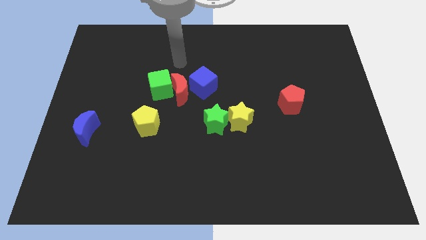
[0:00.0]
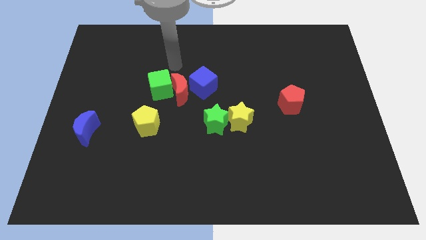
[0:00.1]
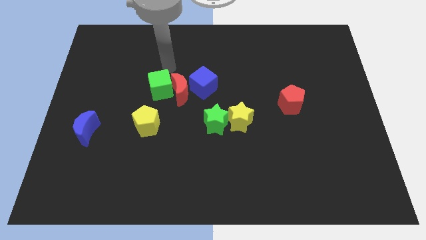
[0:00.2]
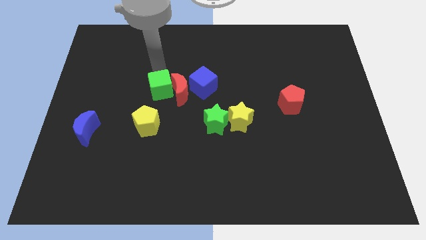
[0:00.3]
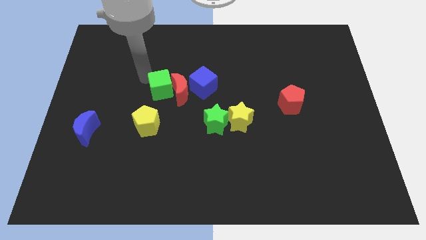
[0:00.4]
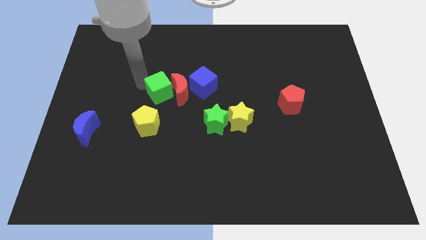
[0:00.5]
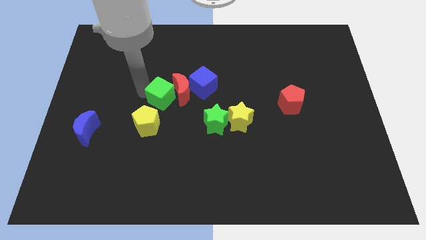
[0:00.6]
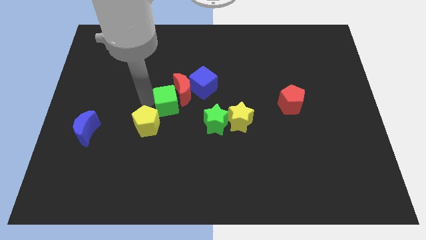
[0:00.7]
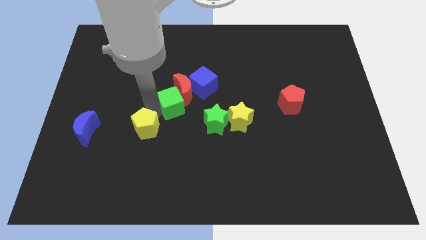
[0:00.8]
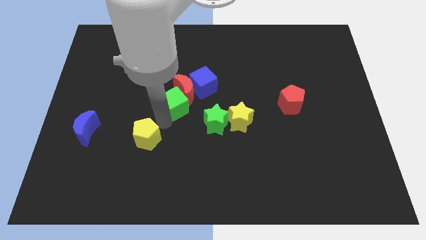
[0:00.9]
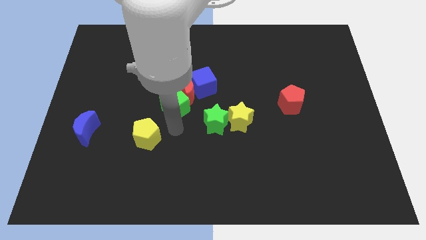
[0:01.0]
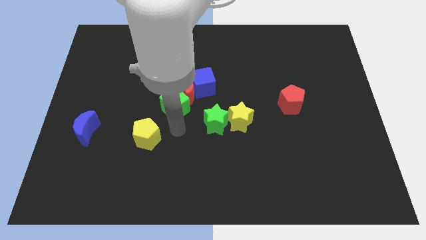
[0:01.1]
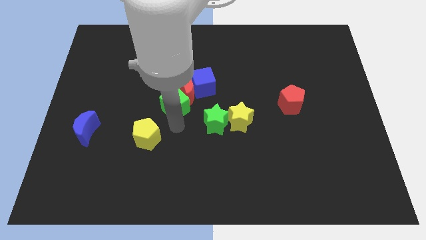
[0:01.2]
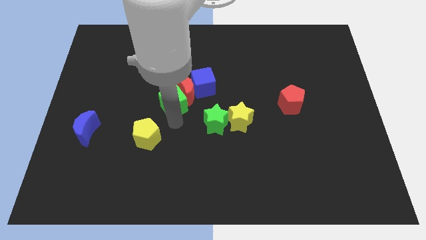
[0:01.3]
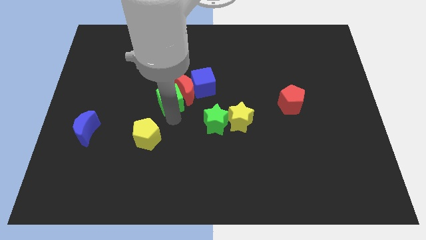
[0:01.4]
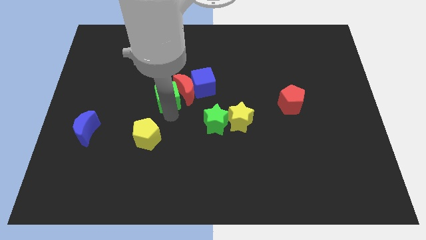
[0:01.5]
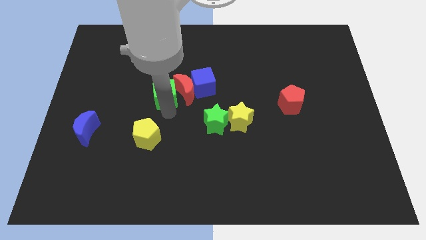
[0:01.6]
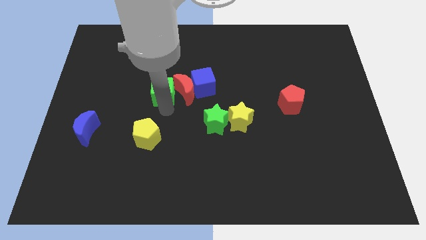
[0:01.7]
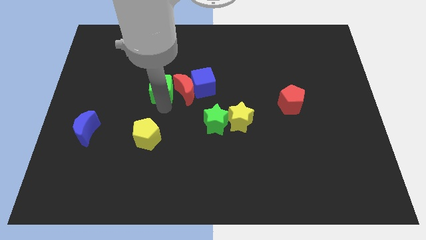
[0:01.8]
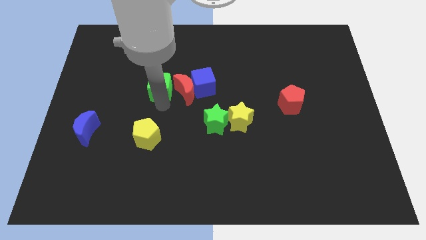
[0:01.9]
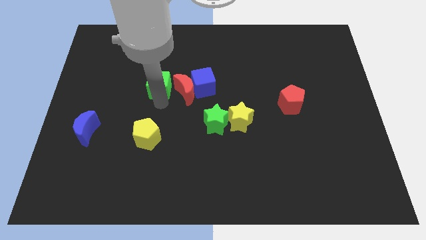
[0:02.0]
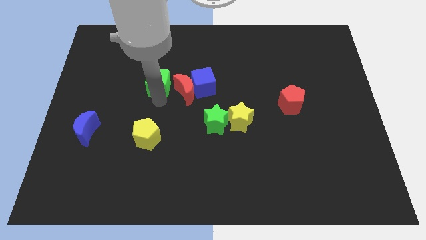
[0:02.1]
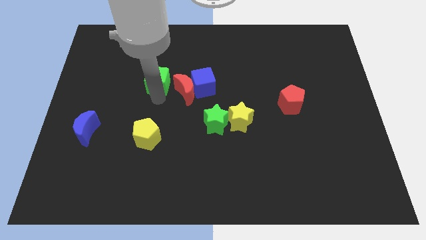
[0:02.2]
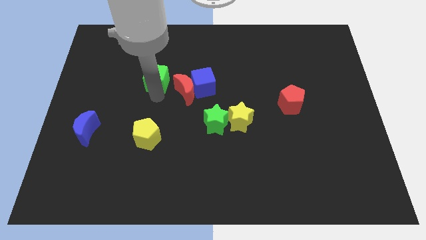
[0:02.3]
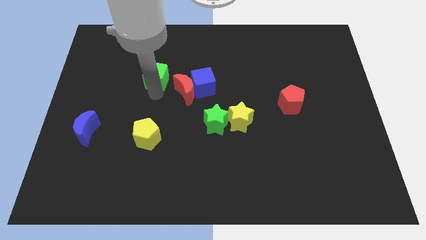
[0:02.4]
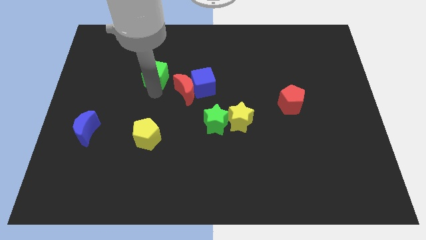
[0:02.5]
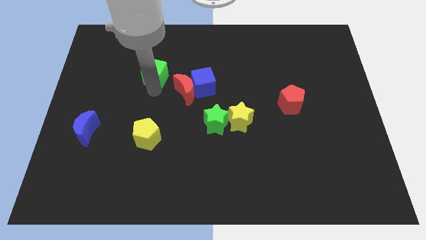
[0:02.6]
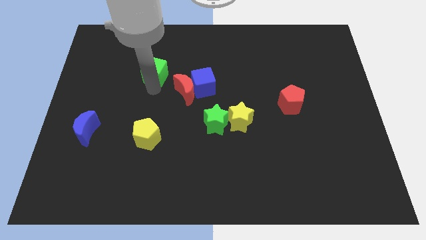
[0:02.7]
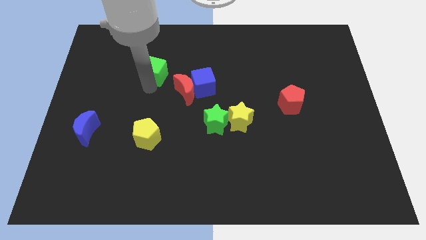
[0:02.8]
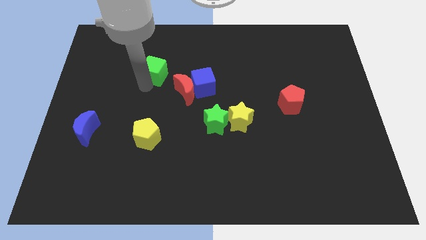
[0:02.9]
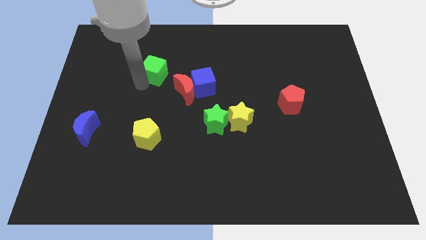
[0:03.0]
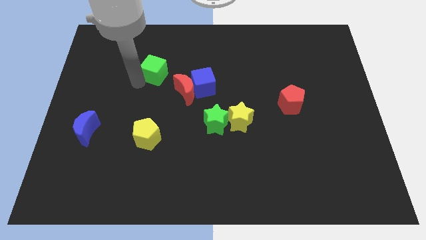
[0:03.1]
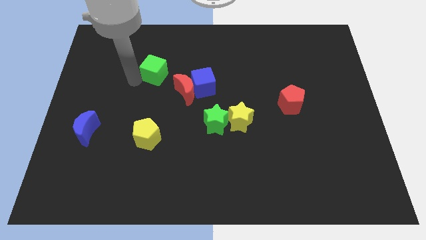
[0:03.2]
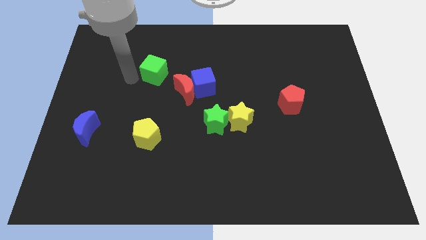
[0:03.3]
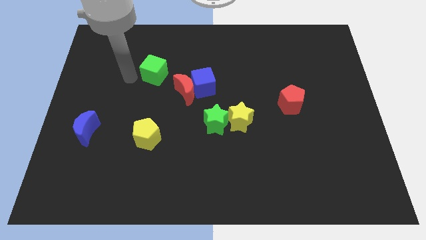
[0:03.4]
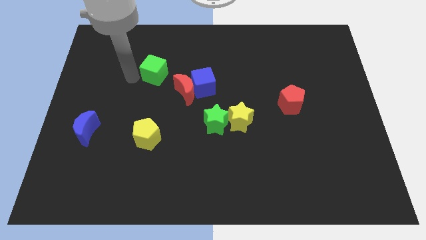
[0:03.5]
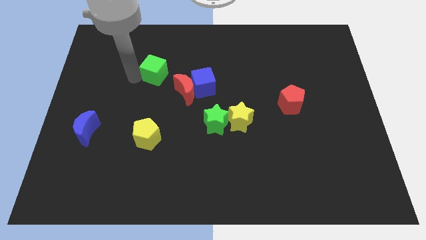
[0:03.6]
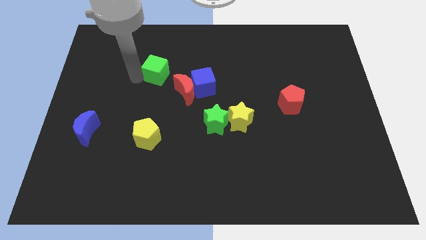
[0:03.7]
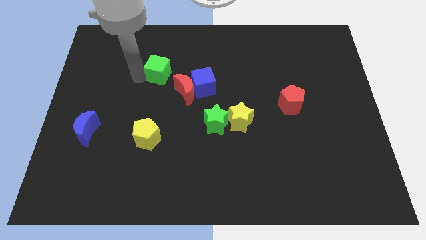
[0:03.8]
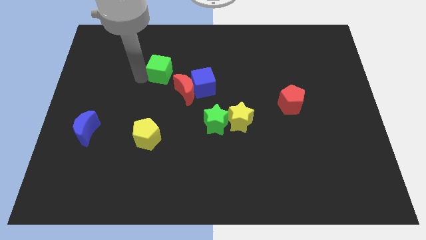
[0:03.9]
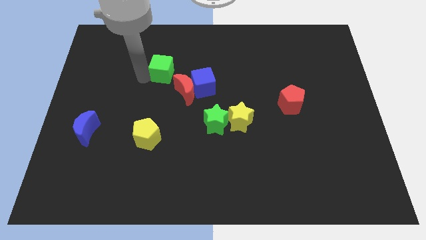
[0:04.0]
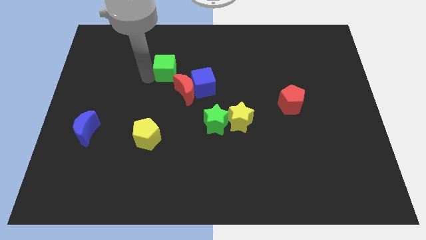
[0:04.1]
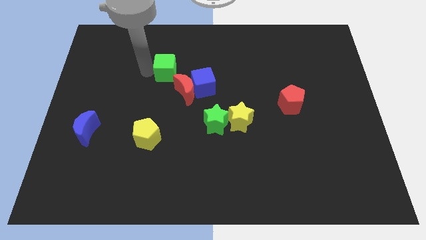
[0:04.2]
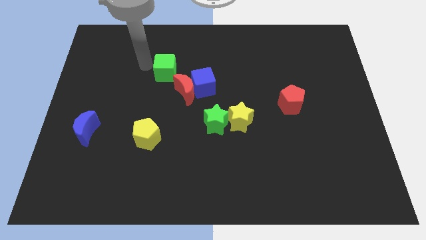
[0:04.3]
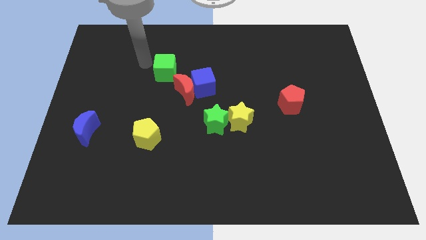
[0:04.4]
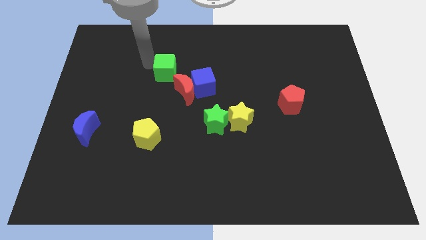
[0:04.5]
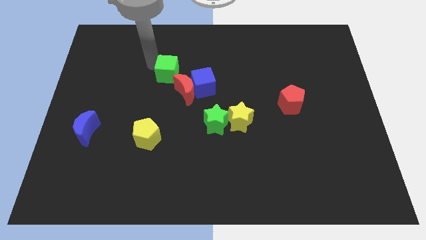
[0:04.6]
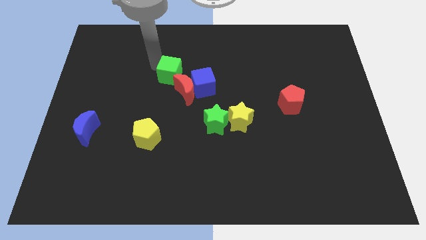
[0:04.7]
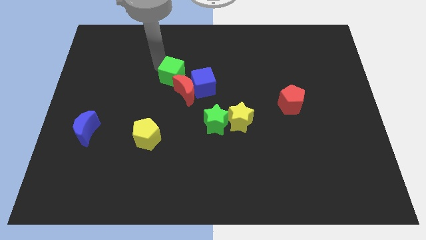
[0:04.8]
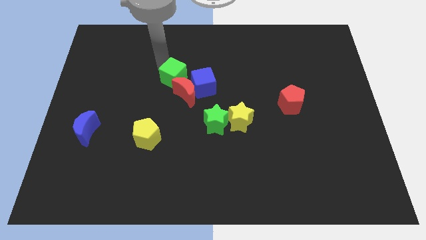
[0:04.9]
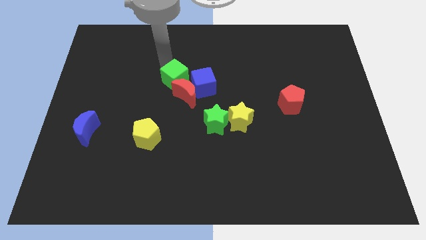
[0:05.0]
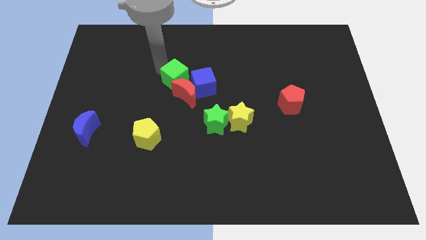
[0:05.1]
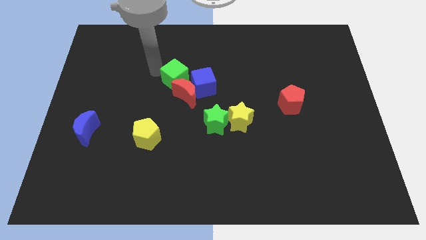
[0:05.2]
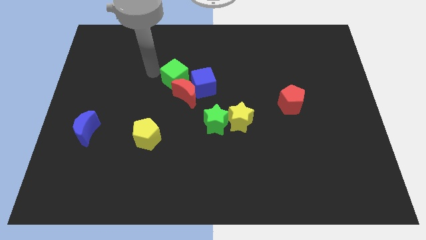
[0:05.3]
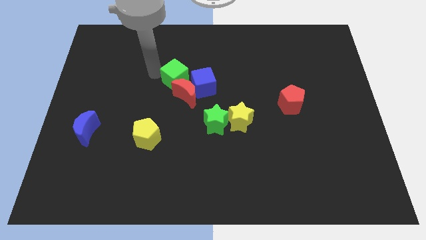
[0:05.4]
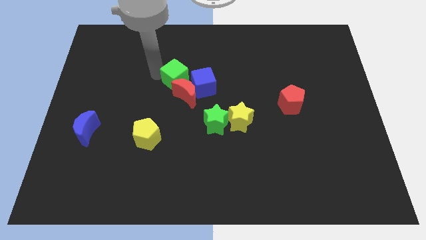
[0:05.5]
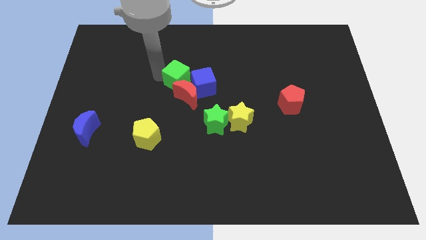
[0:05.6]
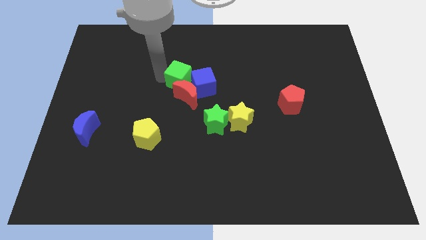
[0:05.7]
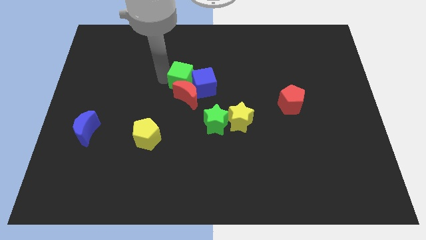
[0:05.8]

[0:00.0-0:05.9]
put the green cube close to the blue cube

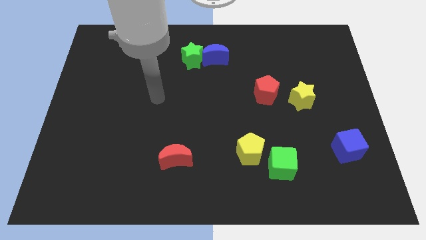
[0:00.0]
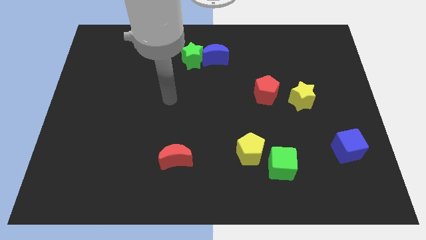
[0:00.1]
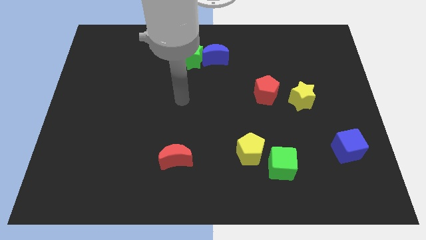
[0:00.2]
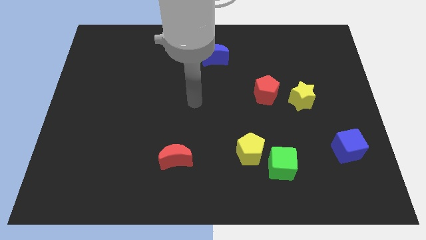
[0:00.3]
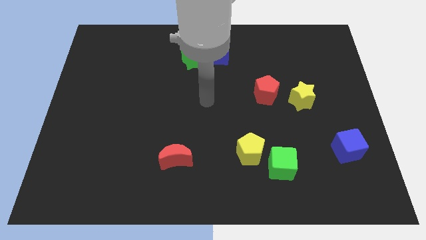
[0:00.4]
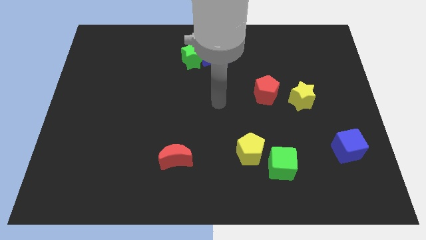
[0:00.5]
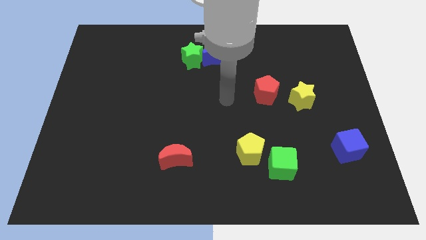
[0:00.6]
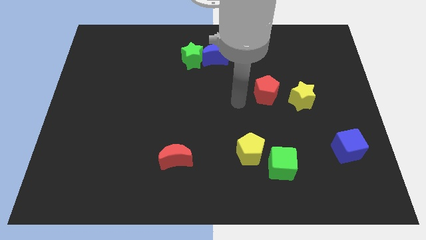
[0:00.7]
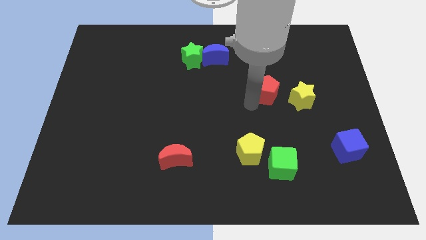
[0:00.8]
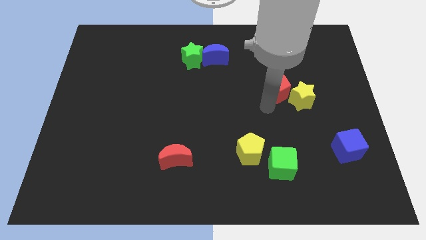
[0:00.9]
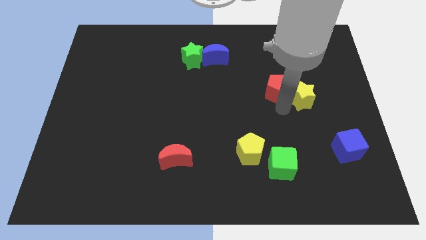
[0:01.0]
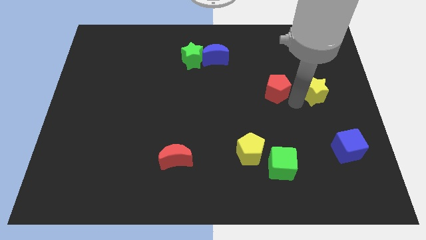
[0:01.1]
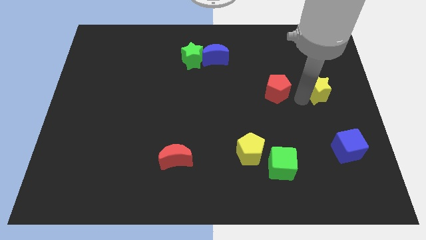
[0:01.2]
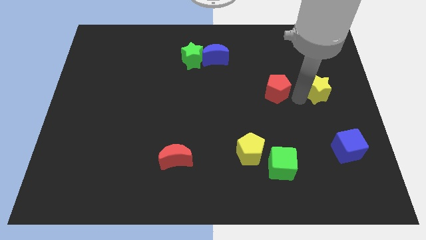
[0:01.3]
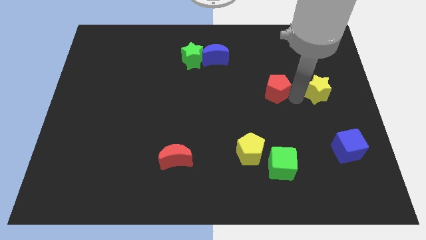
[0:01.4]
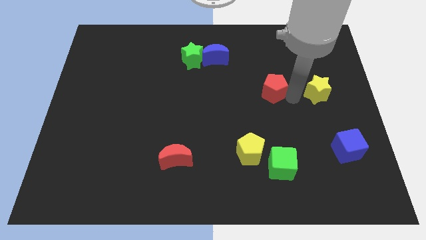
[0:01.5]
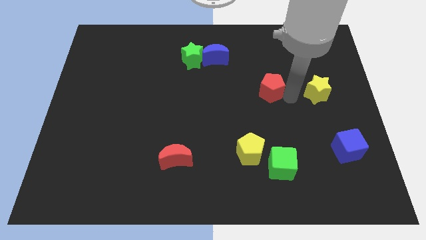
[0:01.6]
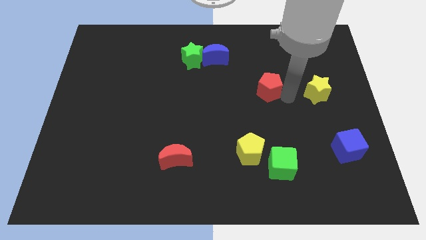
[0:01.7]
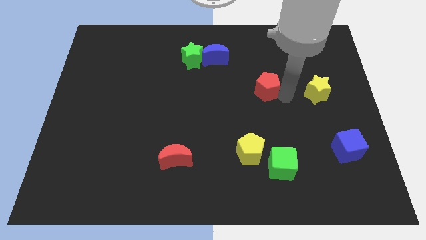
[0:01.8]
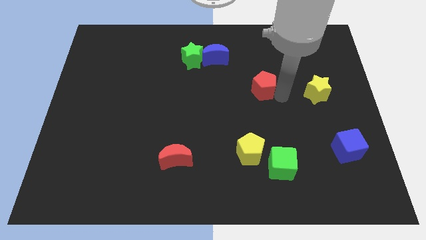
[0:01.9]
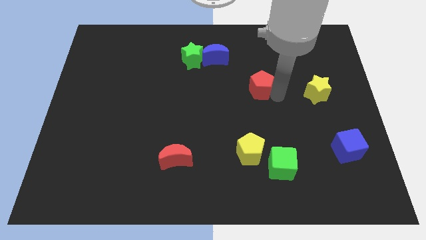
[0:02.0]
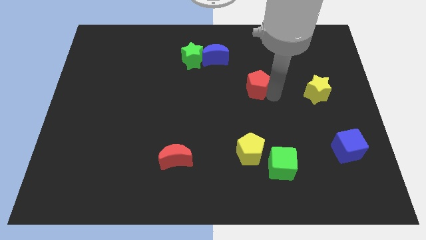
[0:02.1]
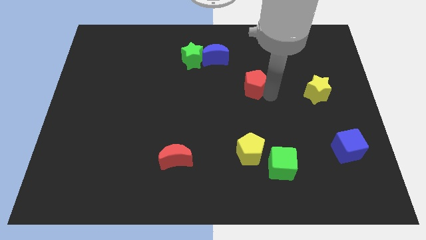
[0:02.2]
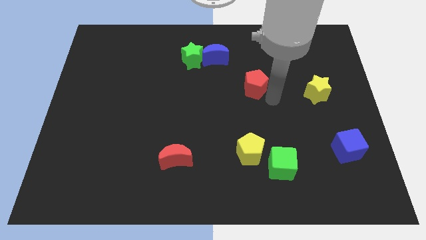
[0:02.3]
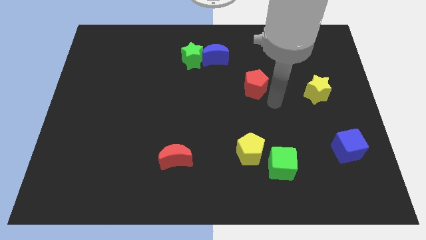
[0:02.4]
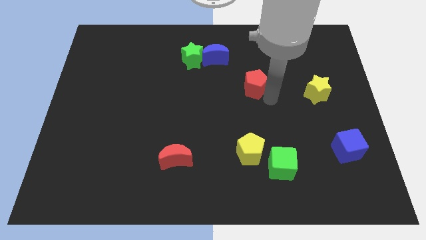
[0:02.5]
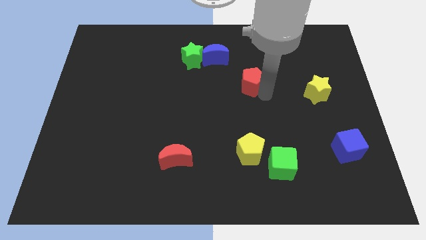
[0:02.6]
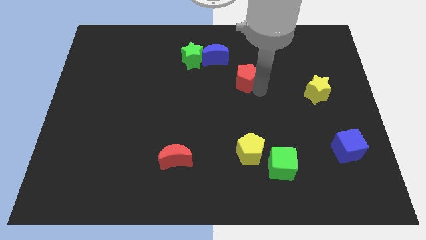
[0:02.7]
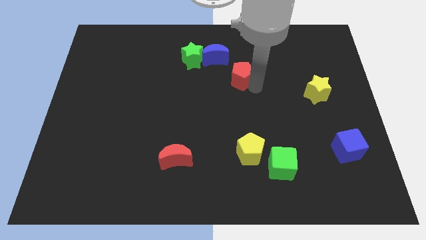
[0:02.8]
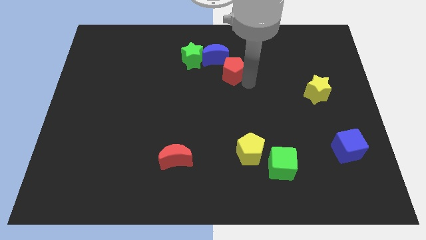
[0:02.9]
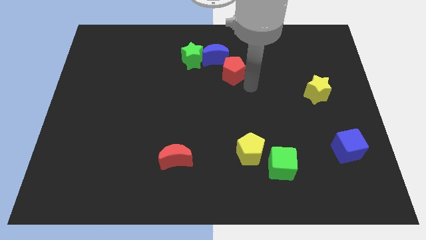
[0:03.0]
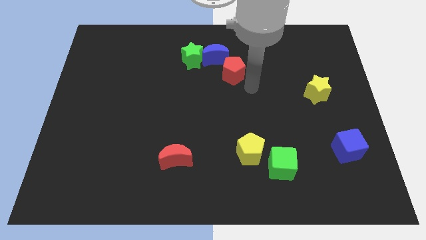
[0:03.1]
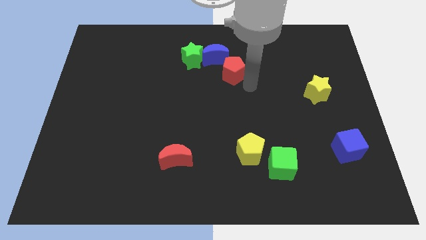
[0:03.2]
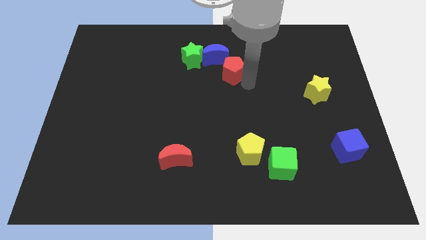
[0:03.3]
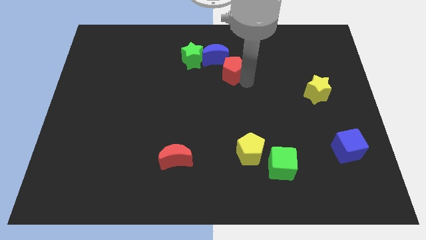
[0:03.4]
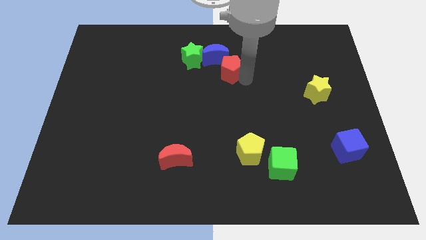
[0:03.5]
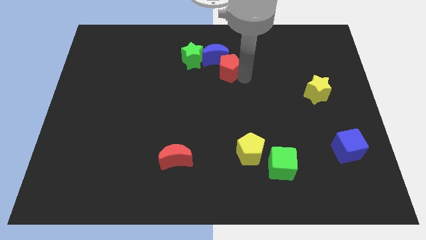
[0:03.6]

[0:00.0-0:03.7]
move the red pentagon next to the blue moon
